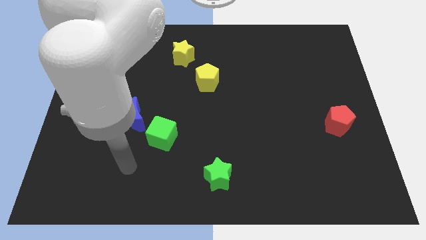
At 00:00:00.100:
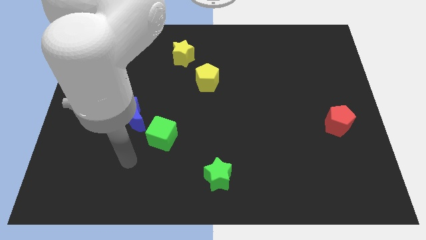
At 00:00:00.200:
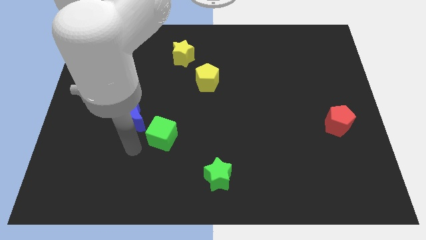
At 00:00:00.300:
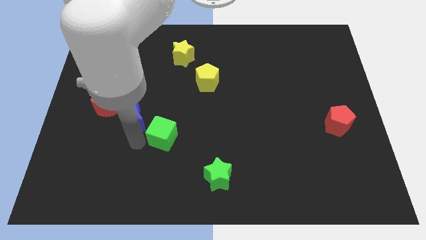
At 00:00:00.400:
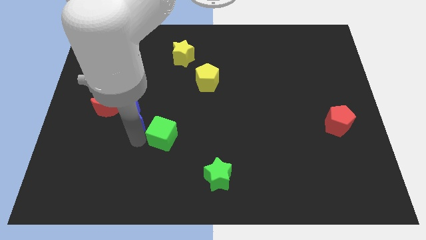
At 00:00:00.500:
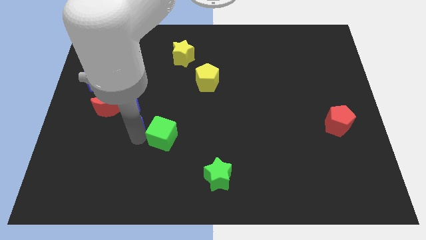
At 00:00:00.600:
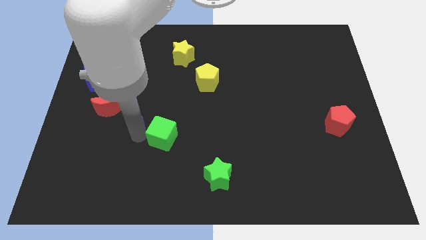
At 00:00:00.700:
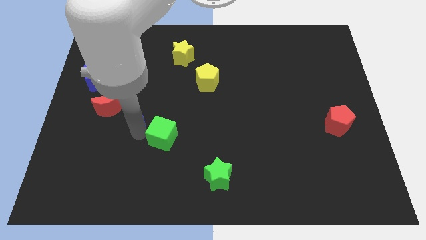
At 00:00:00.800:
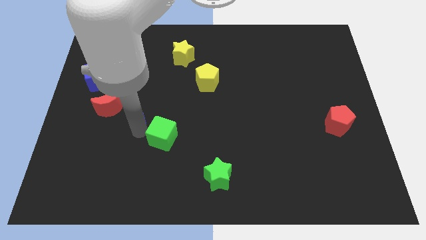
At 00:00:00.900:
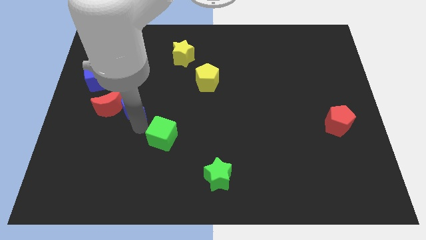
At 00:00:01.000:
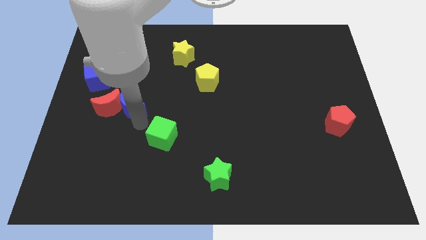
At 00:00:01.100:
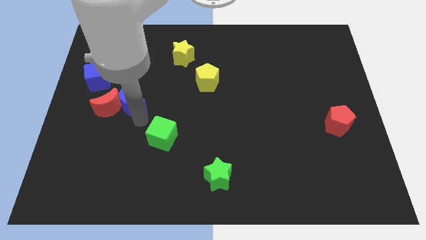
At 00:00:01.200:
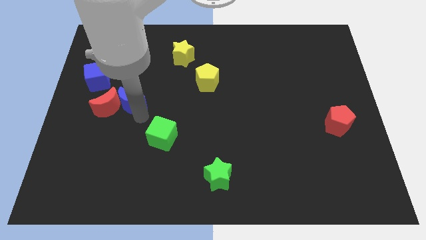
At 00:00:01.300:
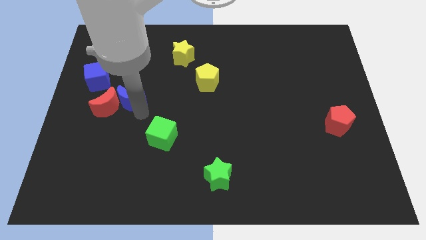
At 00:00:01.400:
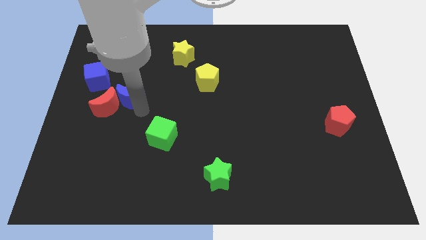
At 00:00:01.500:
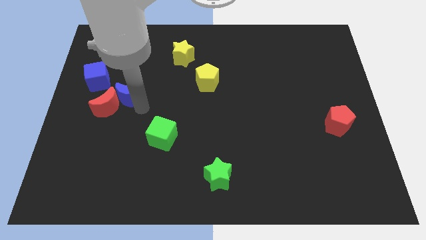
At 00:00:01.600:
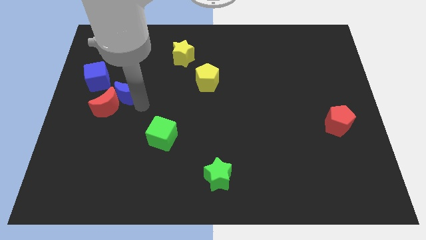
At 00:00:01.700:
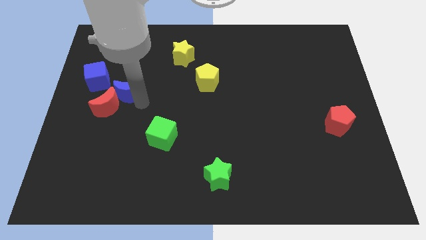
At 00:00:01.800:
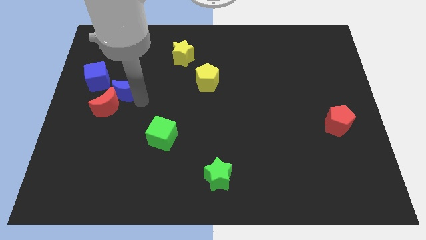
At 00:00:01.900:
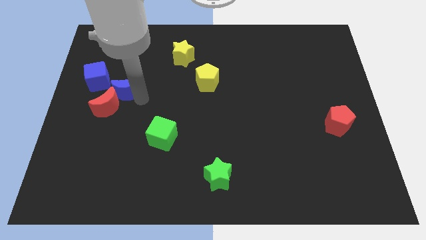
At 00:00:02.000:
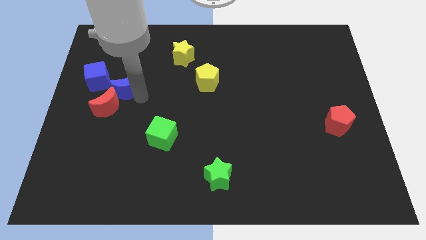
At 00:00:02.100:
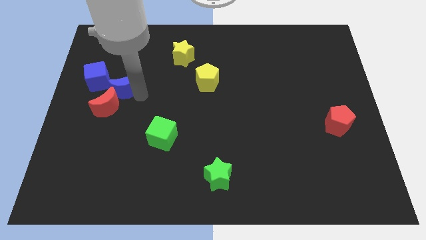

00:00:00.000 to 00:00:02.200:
pull the blue moon apart from the red moon and green cube

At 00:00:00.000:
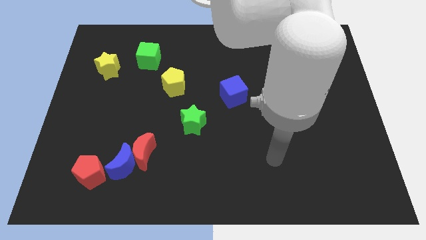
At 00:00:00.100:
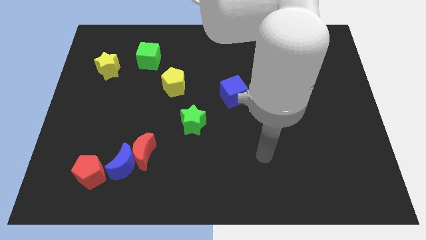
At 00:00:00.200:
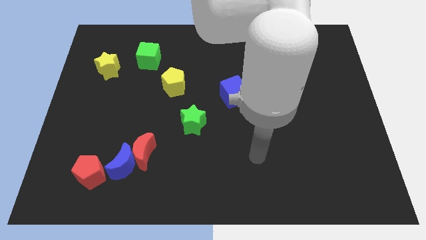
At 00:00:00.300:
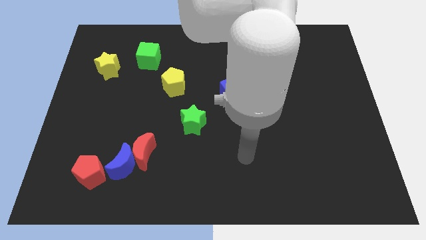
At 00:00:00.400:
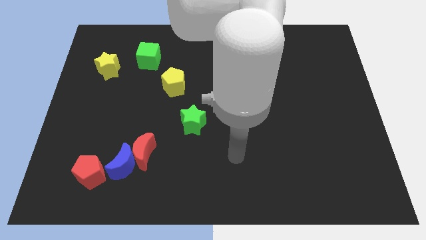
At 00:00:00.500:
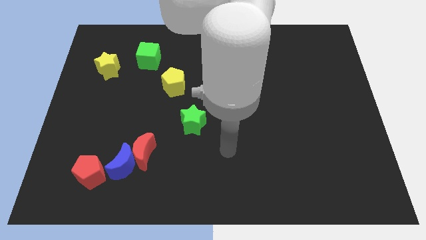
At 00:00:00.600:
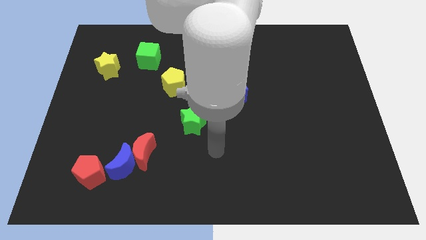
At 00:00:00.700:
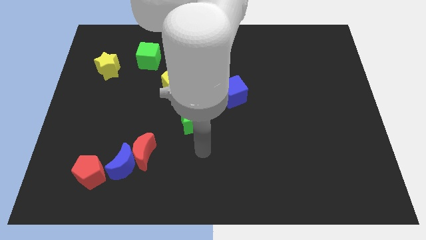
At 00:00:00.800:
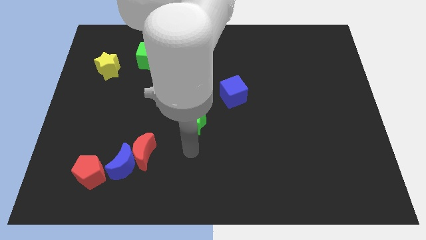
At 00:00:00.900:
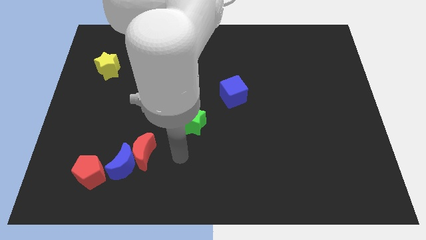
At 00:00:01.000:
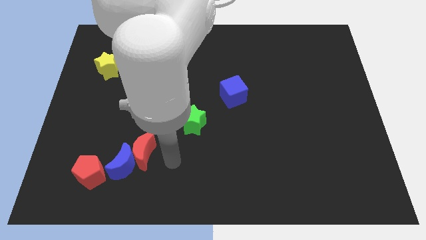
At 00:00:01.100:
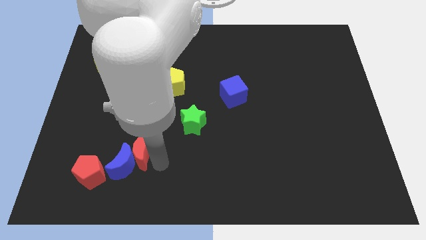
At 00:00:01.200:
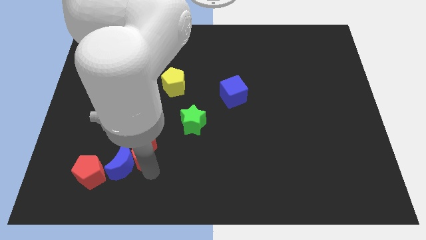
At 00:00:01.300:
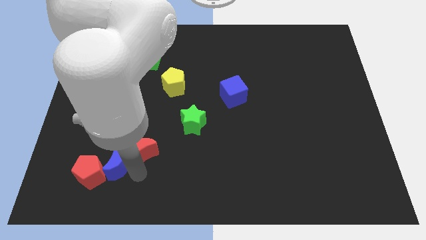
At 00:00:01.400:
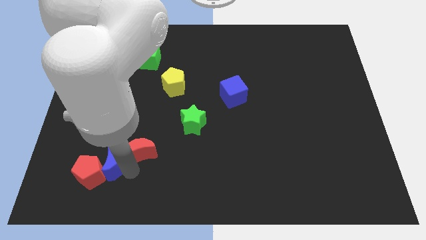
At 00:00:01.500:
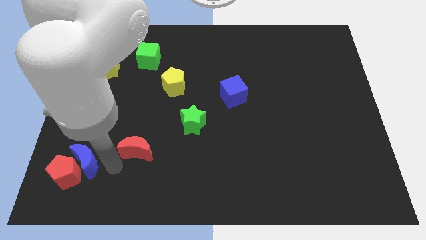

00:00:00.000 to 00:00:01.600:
move the red moon away from the blue moon

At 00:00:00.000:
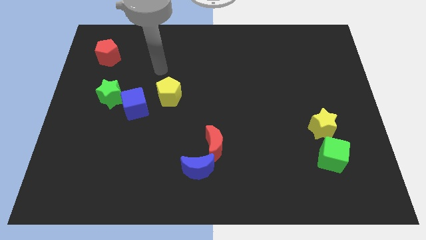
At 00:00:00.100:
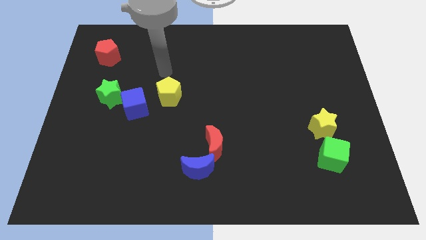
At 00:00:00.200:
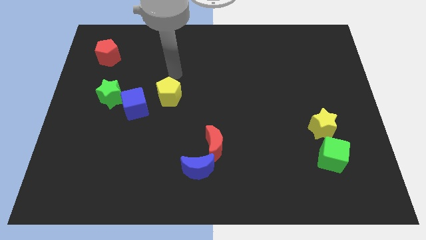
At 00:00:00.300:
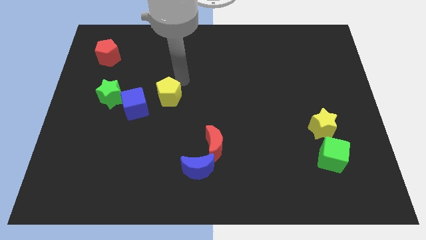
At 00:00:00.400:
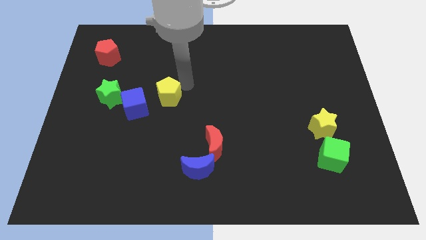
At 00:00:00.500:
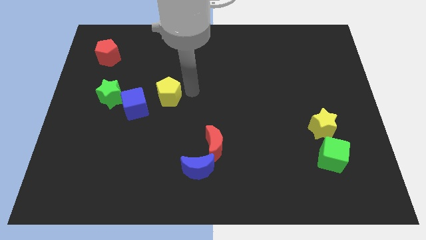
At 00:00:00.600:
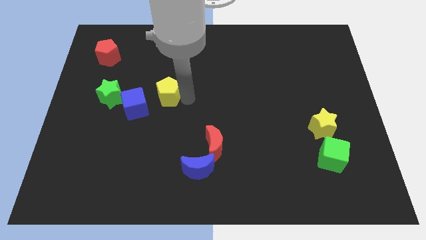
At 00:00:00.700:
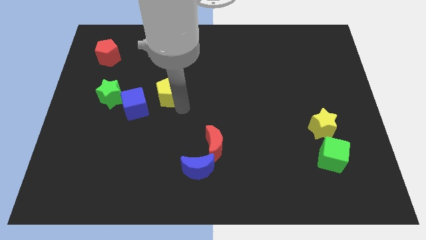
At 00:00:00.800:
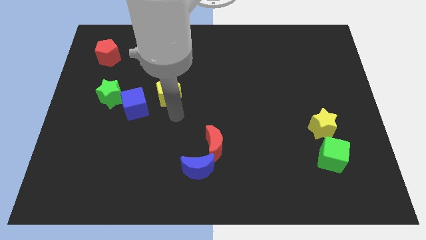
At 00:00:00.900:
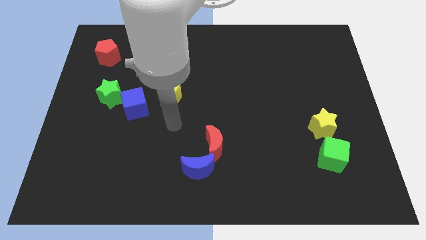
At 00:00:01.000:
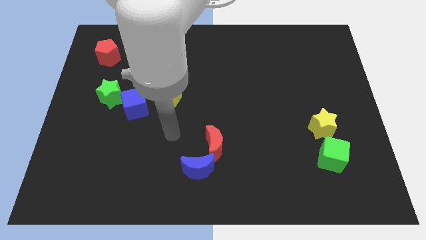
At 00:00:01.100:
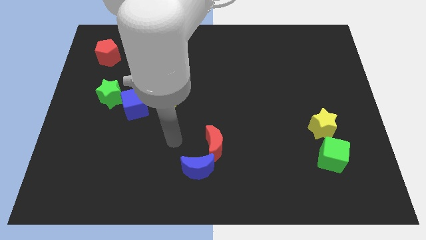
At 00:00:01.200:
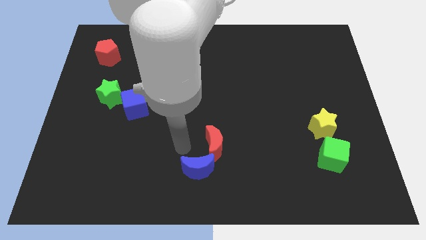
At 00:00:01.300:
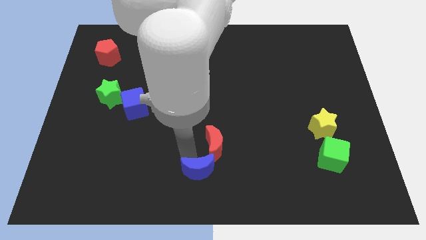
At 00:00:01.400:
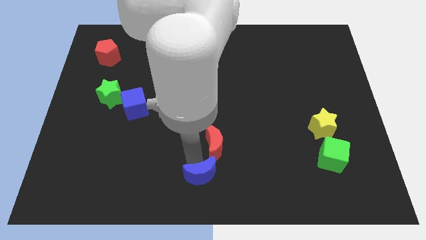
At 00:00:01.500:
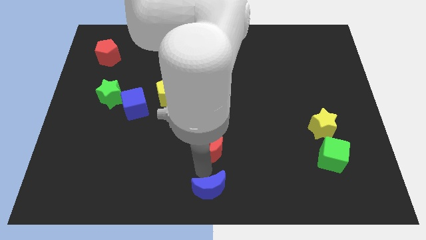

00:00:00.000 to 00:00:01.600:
pull the red moon apart from the blue moon

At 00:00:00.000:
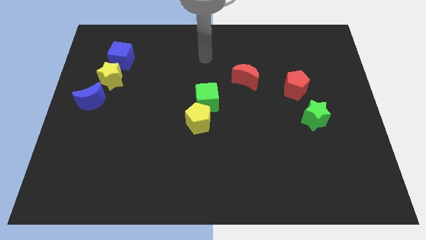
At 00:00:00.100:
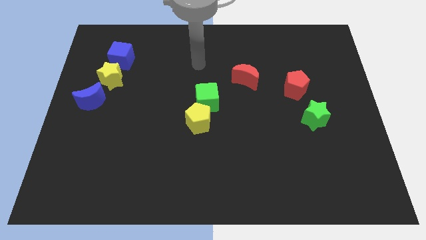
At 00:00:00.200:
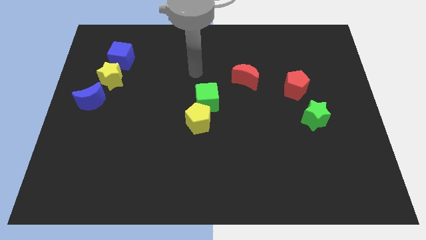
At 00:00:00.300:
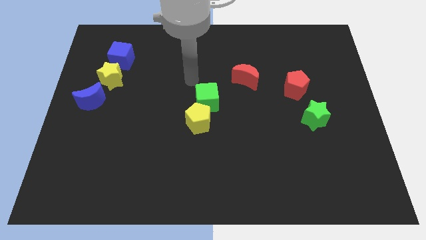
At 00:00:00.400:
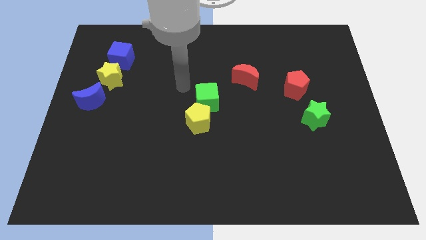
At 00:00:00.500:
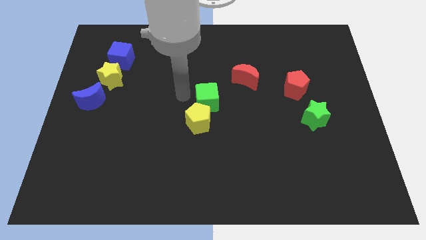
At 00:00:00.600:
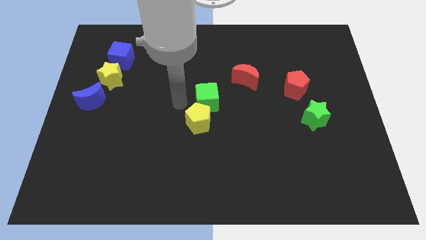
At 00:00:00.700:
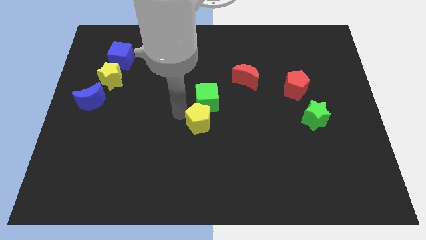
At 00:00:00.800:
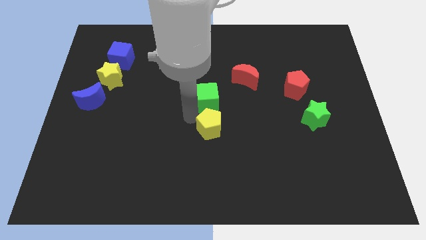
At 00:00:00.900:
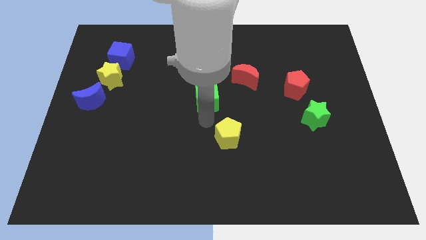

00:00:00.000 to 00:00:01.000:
separate the green cube from the yellow pentagon

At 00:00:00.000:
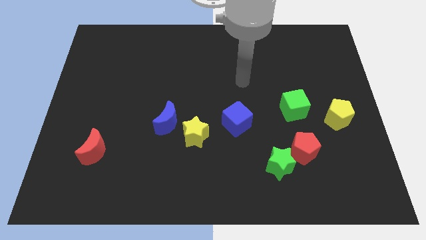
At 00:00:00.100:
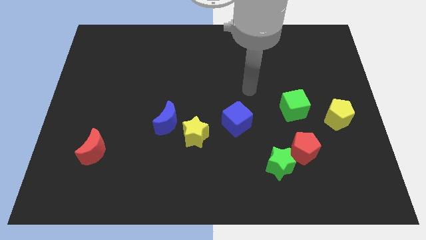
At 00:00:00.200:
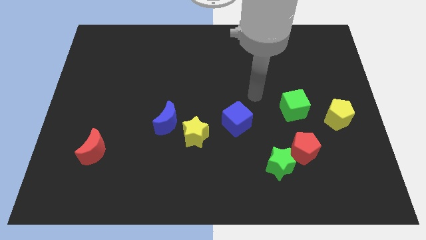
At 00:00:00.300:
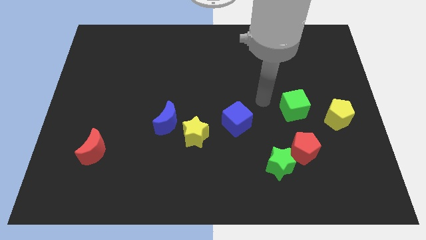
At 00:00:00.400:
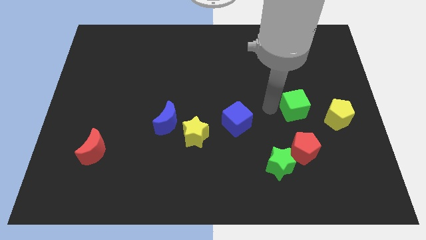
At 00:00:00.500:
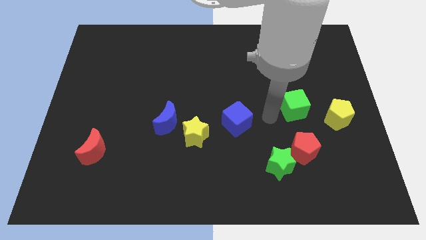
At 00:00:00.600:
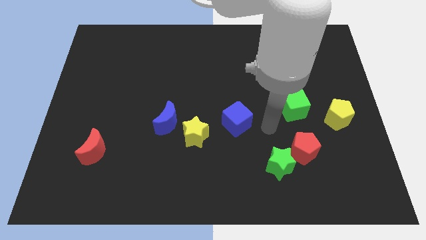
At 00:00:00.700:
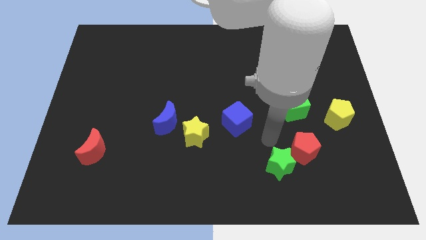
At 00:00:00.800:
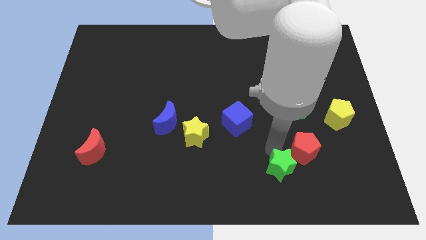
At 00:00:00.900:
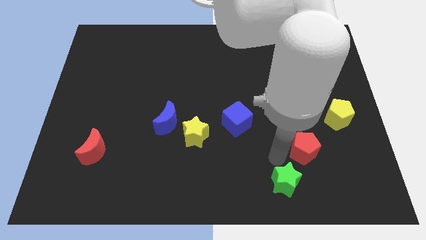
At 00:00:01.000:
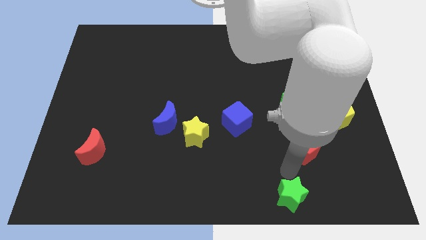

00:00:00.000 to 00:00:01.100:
separate the red pentagon from the green star

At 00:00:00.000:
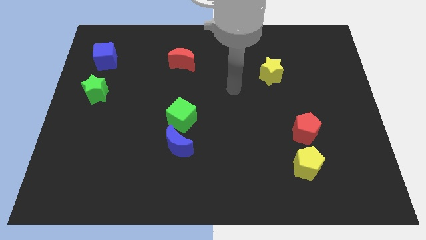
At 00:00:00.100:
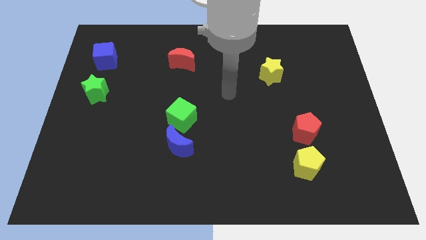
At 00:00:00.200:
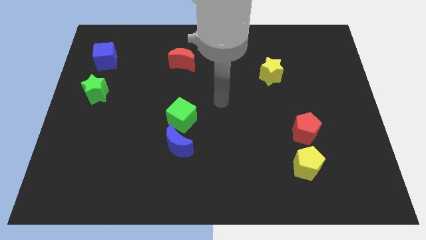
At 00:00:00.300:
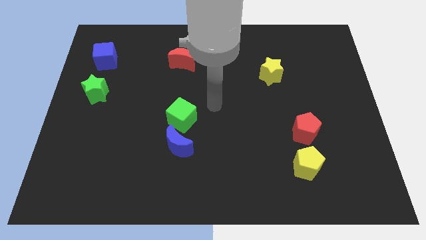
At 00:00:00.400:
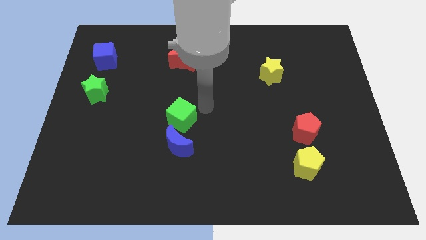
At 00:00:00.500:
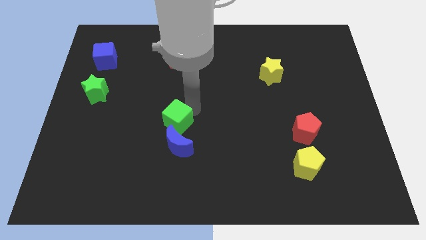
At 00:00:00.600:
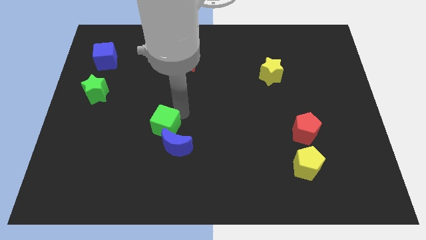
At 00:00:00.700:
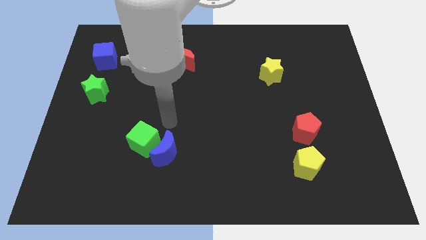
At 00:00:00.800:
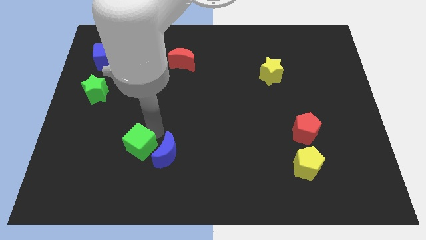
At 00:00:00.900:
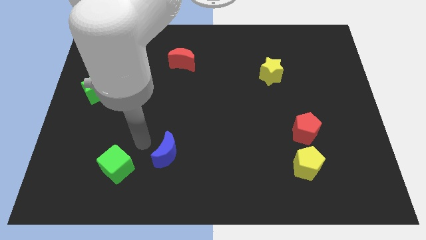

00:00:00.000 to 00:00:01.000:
move the blue moon away from the green cube

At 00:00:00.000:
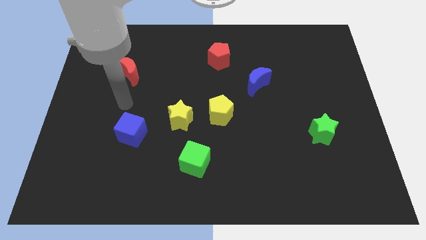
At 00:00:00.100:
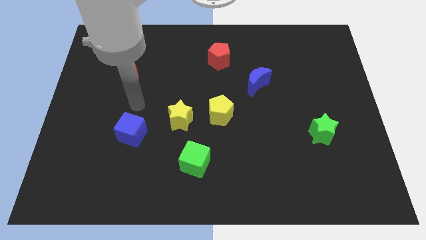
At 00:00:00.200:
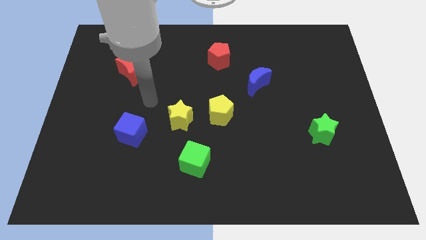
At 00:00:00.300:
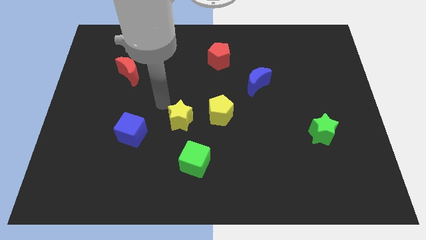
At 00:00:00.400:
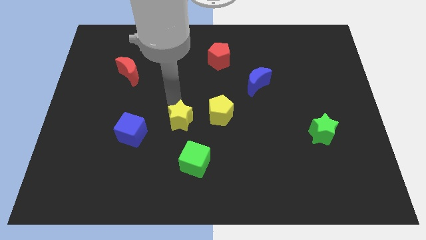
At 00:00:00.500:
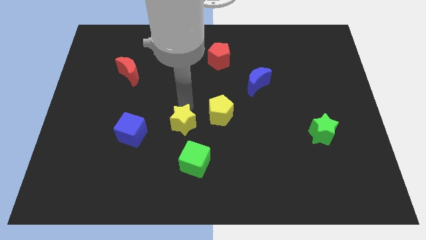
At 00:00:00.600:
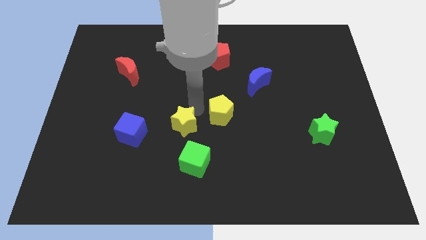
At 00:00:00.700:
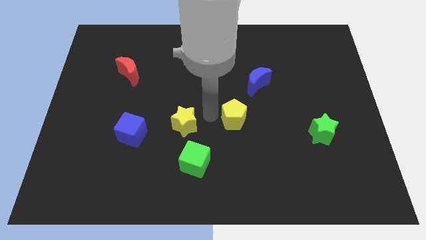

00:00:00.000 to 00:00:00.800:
pull the yellow star apart from the yellow pentagon
